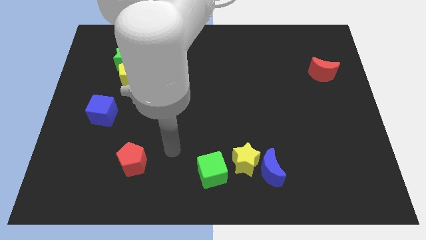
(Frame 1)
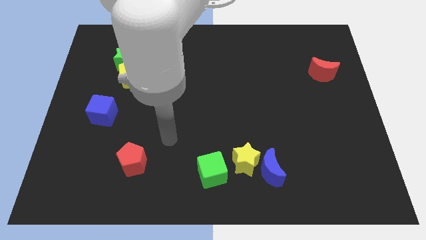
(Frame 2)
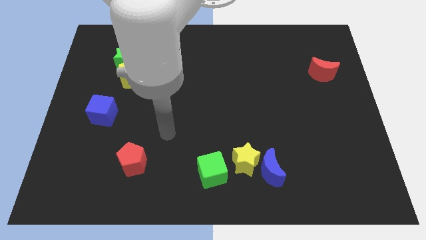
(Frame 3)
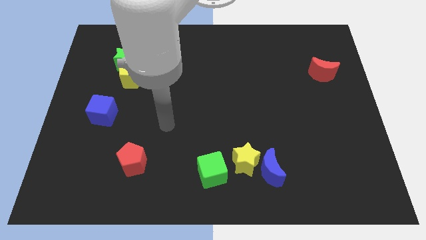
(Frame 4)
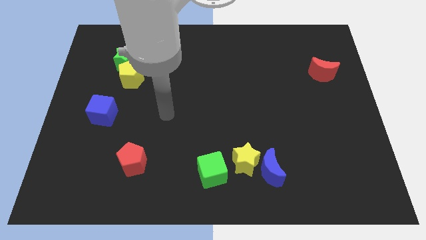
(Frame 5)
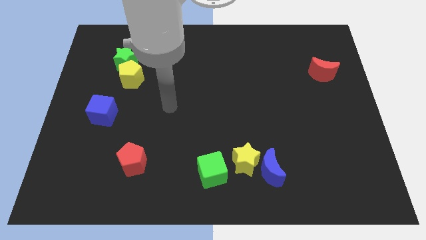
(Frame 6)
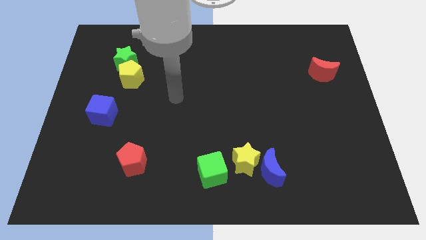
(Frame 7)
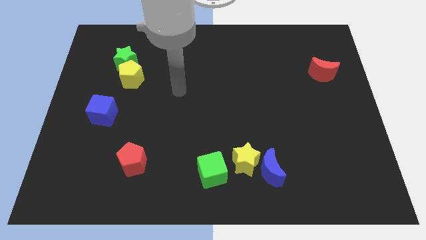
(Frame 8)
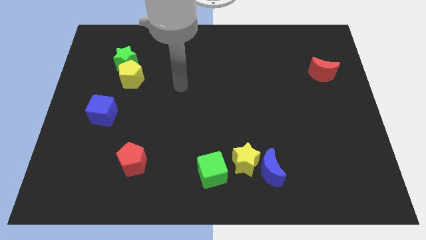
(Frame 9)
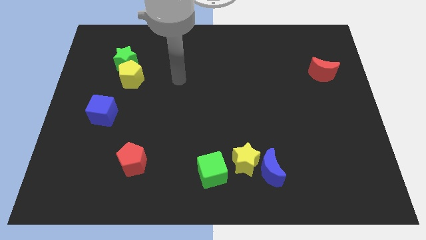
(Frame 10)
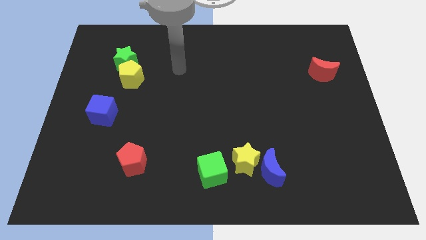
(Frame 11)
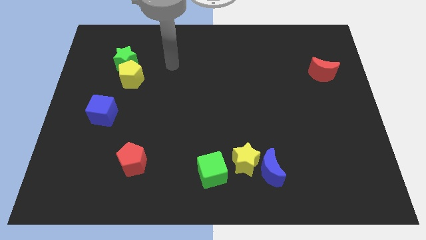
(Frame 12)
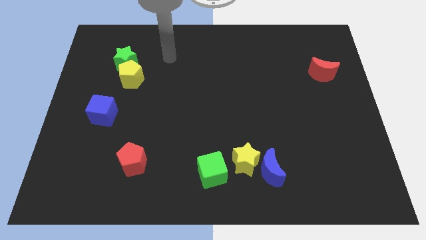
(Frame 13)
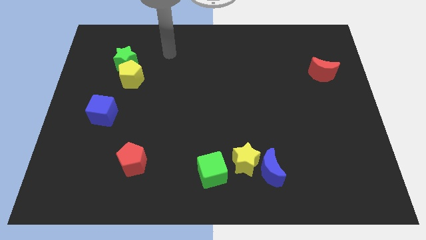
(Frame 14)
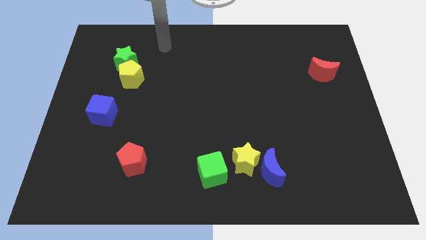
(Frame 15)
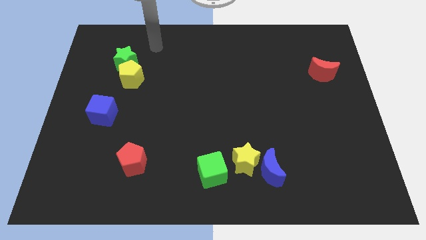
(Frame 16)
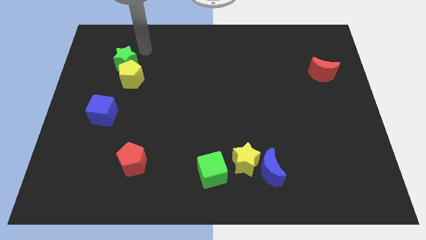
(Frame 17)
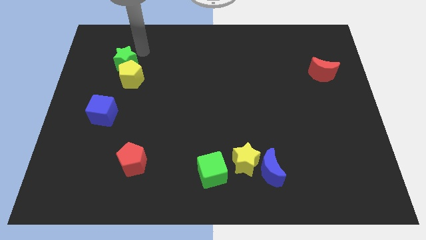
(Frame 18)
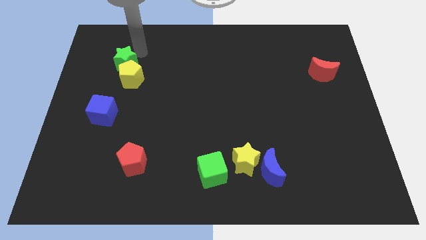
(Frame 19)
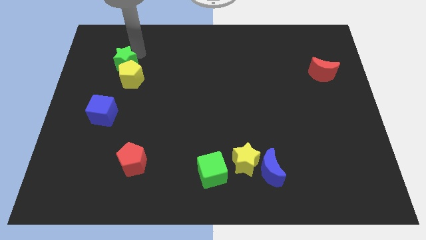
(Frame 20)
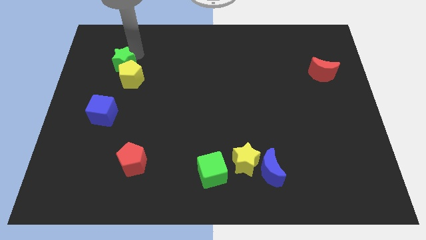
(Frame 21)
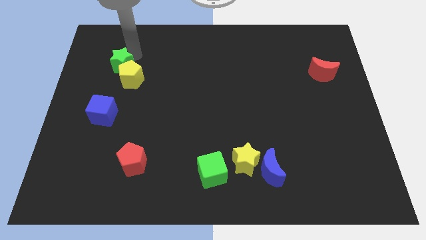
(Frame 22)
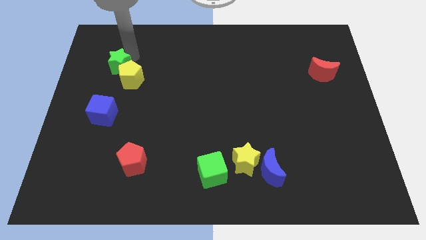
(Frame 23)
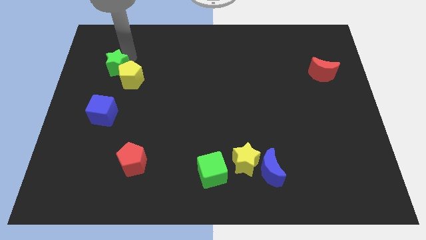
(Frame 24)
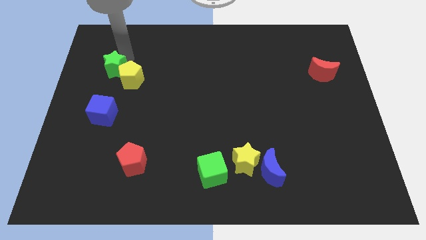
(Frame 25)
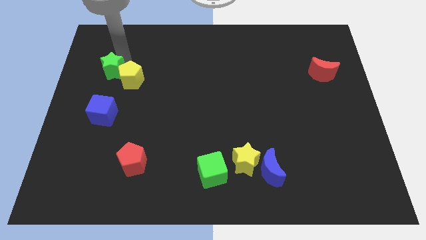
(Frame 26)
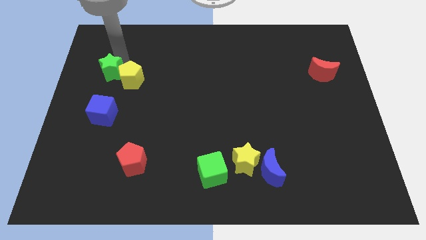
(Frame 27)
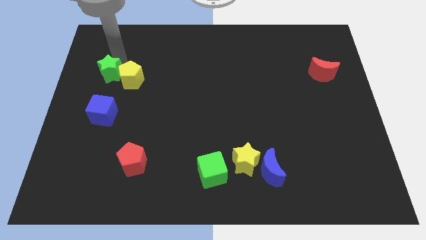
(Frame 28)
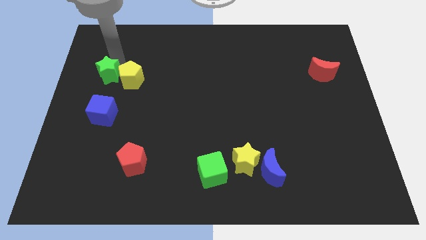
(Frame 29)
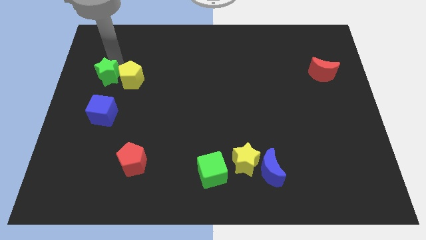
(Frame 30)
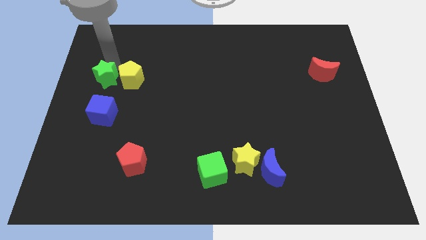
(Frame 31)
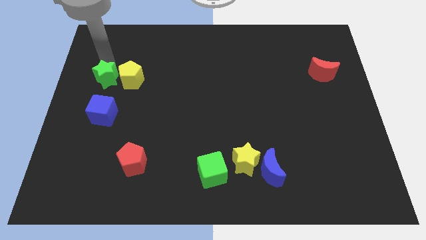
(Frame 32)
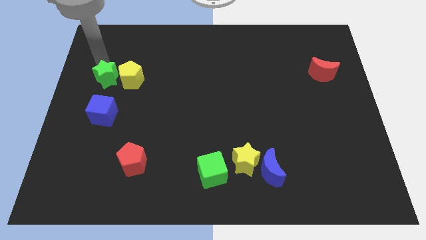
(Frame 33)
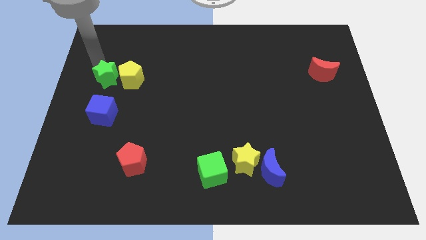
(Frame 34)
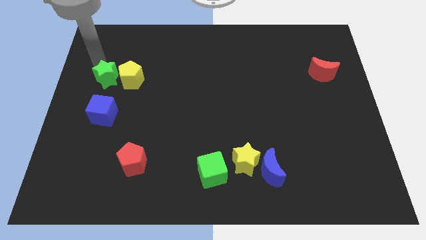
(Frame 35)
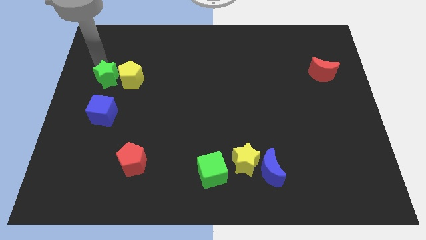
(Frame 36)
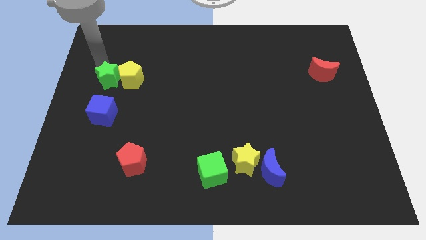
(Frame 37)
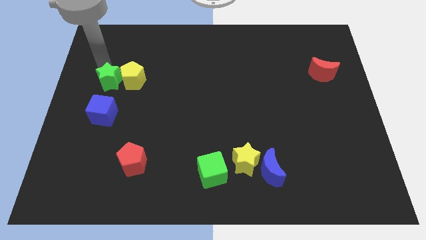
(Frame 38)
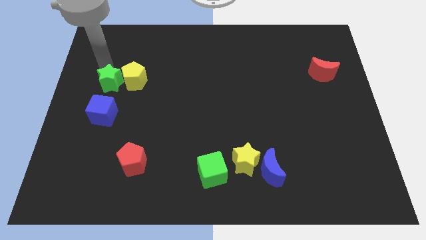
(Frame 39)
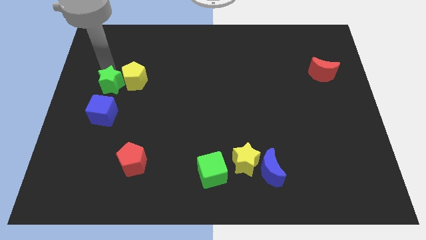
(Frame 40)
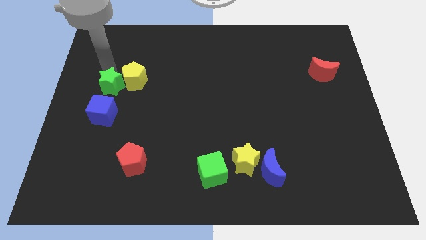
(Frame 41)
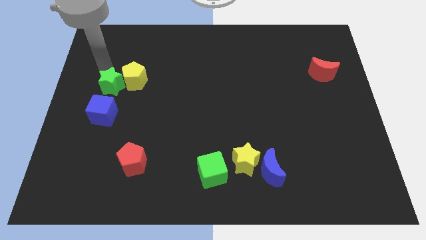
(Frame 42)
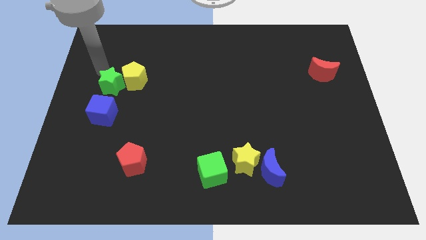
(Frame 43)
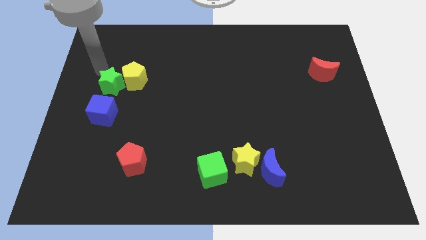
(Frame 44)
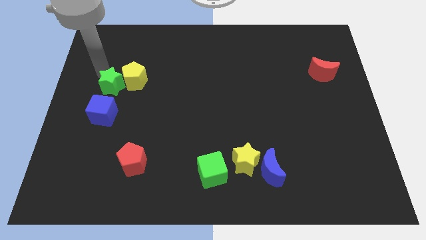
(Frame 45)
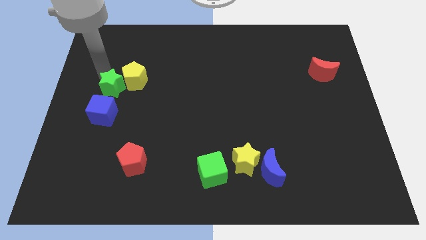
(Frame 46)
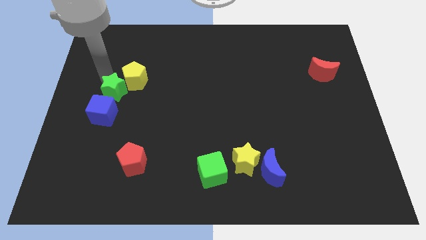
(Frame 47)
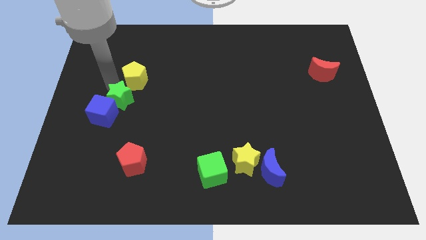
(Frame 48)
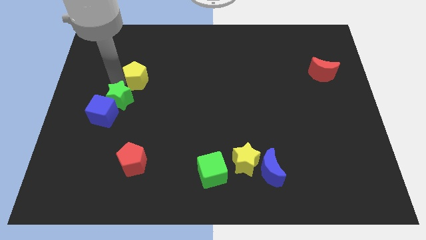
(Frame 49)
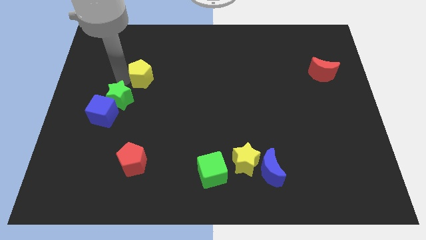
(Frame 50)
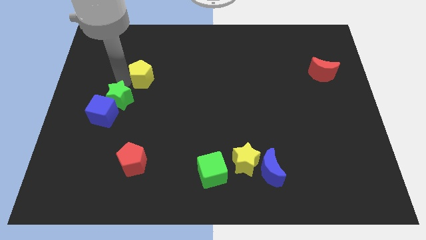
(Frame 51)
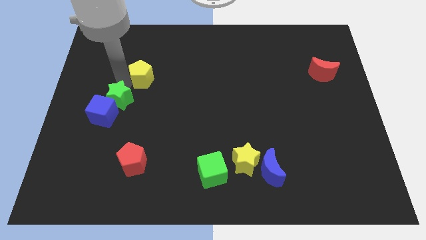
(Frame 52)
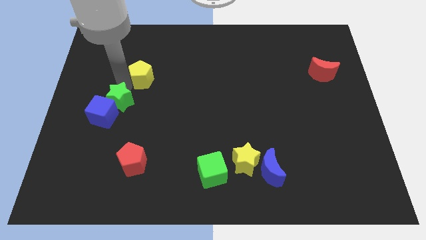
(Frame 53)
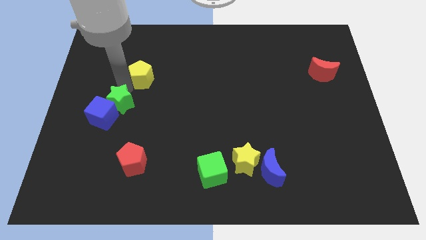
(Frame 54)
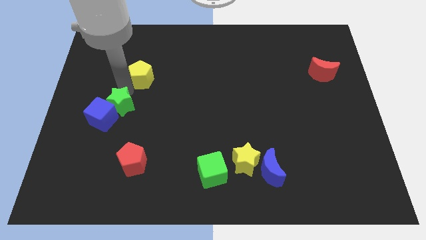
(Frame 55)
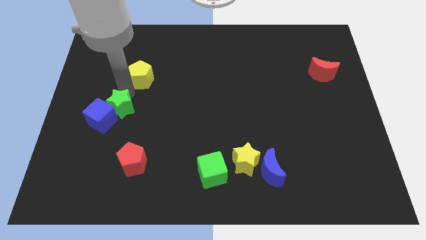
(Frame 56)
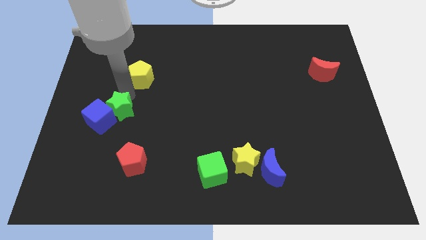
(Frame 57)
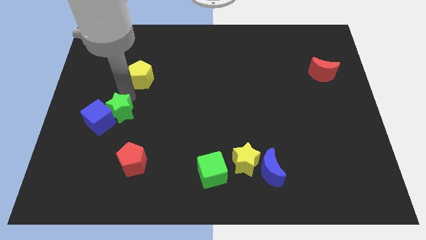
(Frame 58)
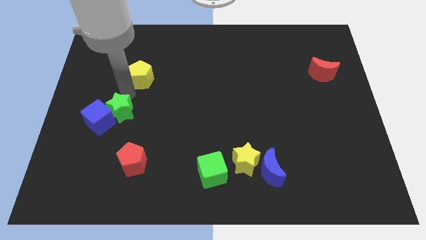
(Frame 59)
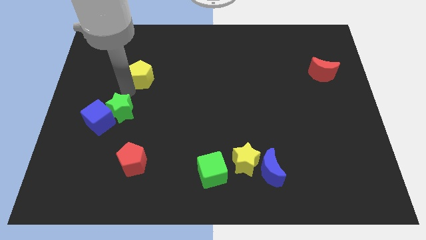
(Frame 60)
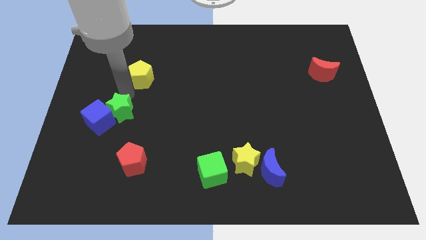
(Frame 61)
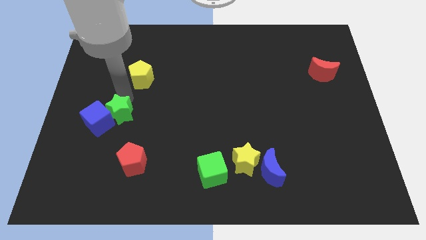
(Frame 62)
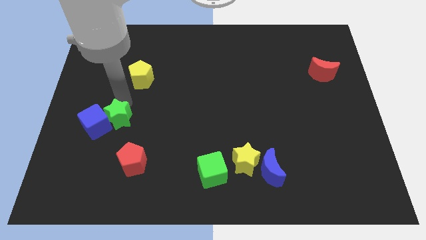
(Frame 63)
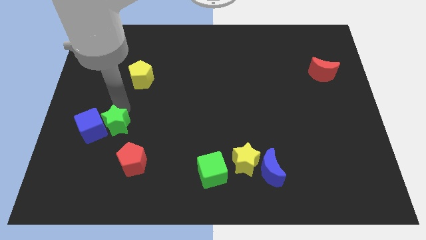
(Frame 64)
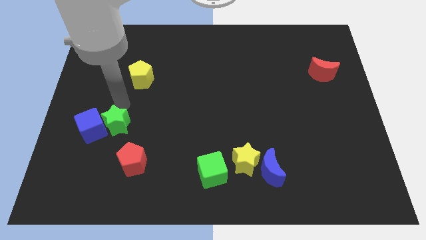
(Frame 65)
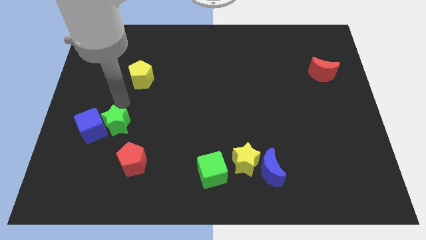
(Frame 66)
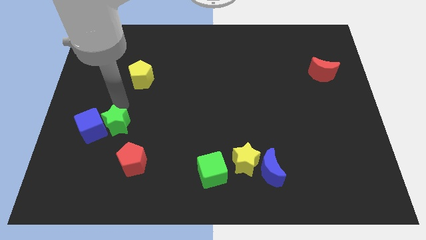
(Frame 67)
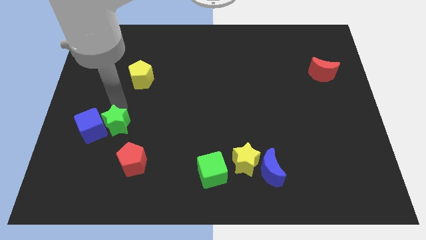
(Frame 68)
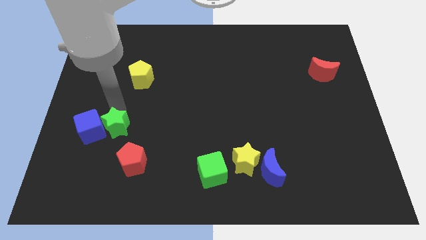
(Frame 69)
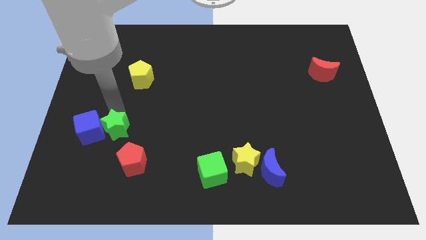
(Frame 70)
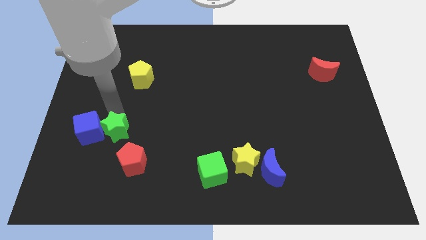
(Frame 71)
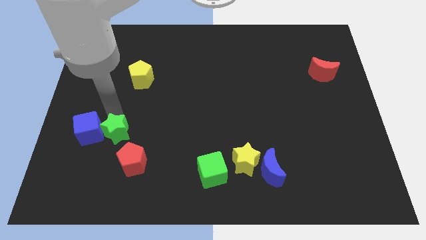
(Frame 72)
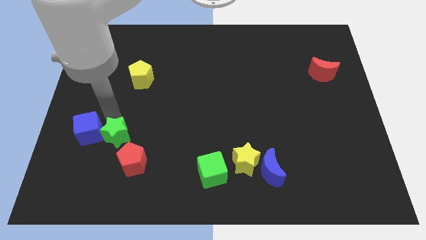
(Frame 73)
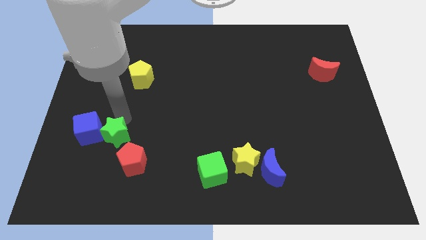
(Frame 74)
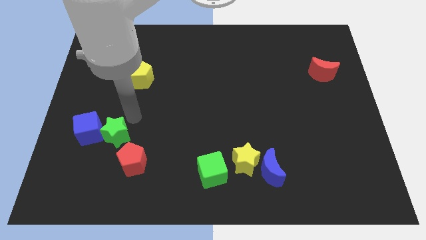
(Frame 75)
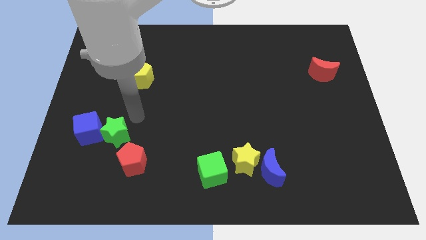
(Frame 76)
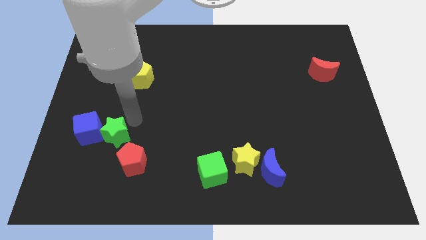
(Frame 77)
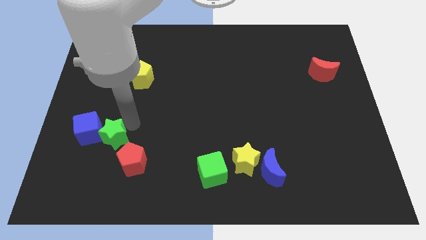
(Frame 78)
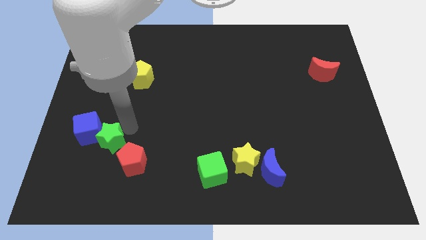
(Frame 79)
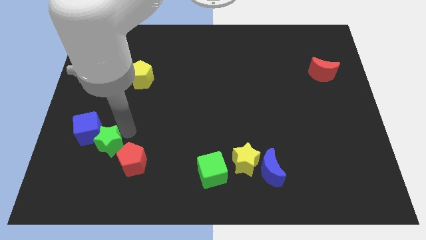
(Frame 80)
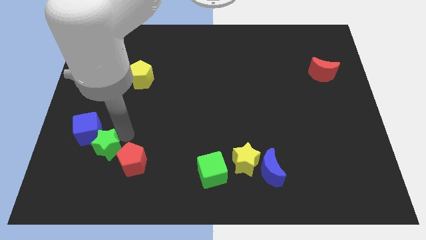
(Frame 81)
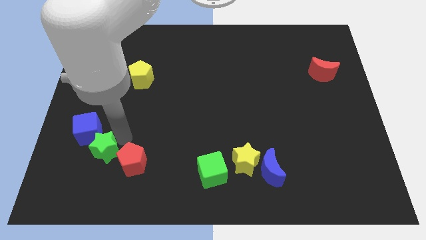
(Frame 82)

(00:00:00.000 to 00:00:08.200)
slide the green star to the bottom of the blue cube
